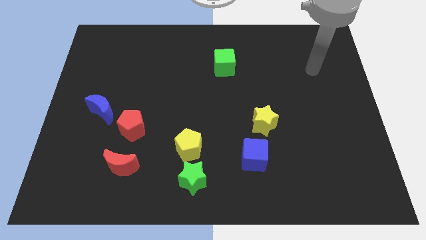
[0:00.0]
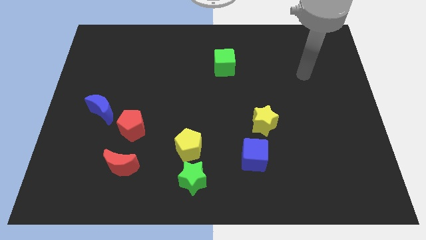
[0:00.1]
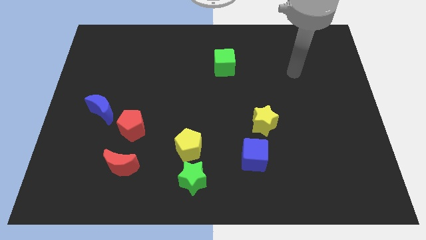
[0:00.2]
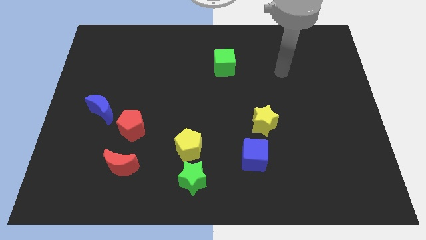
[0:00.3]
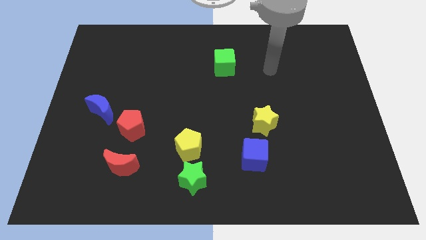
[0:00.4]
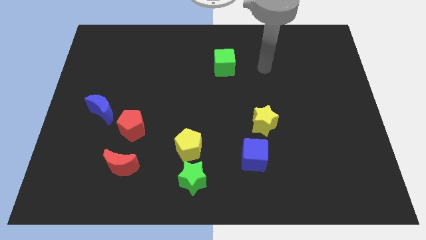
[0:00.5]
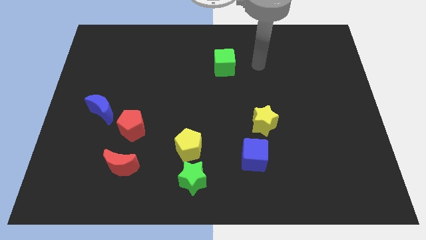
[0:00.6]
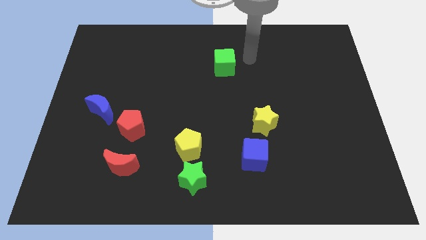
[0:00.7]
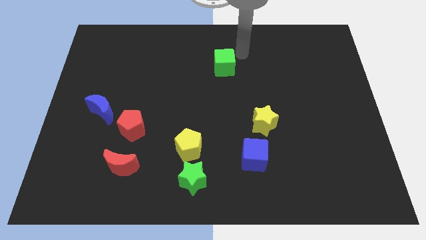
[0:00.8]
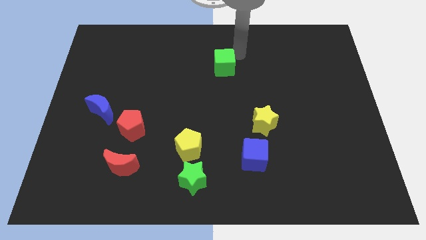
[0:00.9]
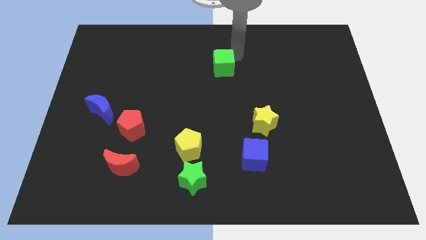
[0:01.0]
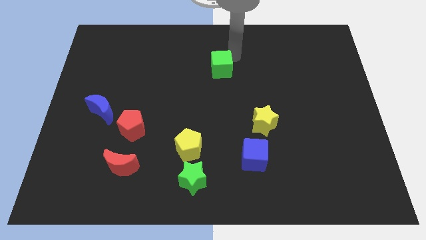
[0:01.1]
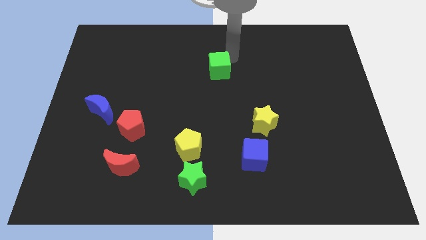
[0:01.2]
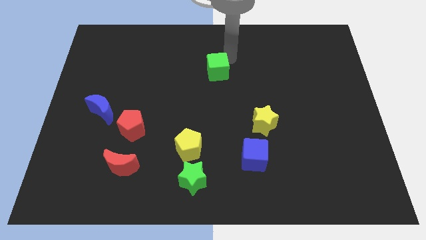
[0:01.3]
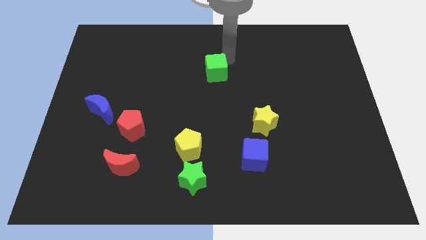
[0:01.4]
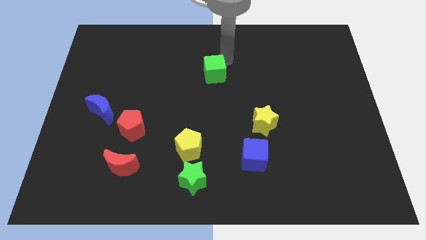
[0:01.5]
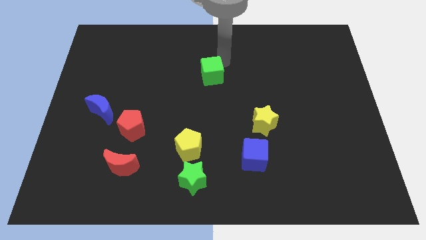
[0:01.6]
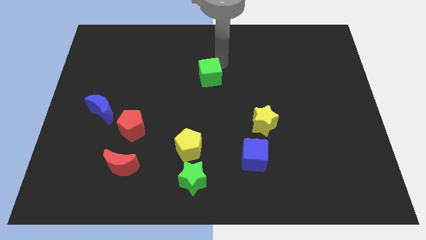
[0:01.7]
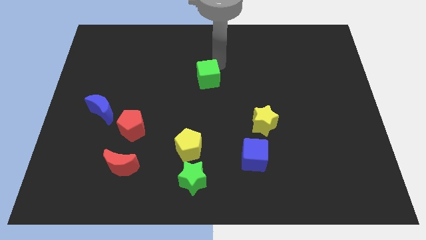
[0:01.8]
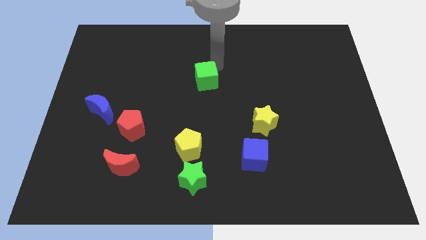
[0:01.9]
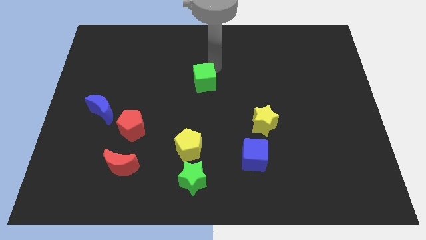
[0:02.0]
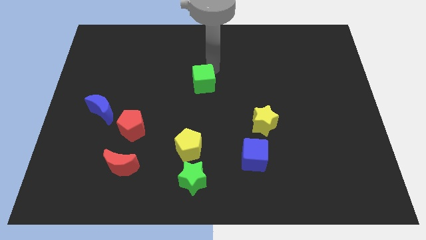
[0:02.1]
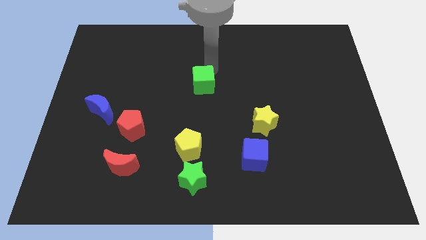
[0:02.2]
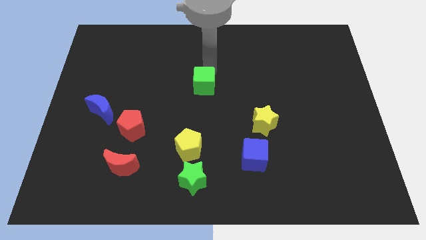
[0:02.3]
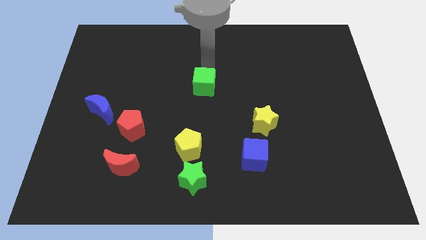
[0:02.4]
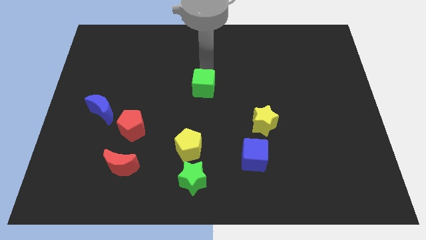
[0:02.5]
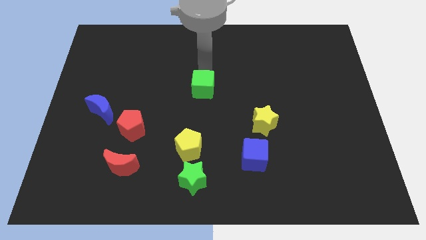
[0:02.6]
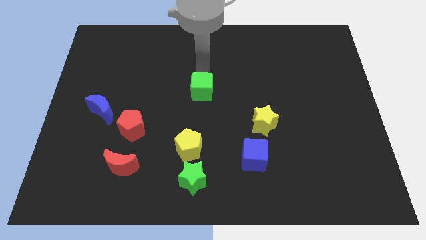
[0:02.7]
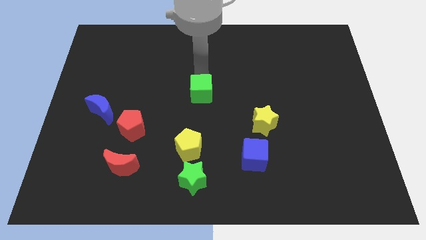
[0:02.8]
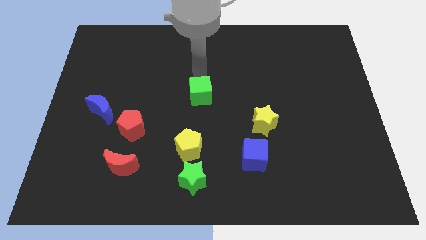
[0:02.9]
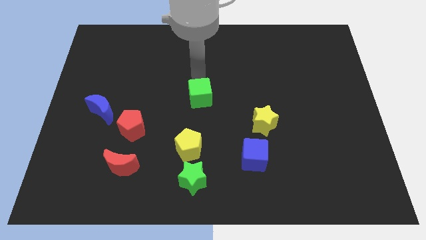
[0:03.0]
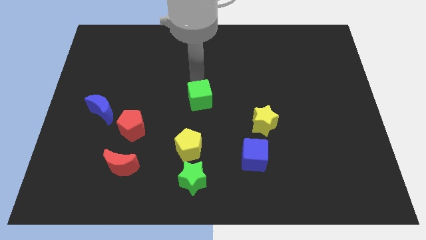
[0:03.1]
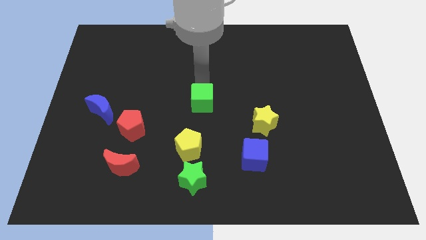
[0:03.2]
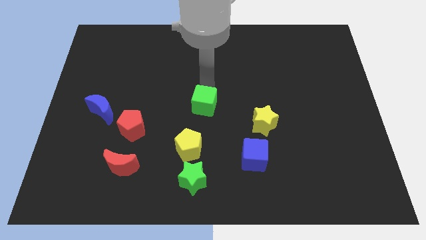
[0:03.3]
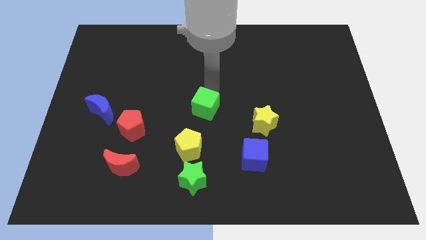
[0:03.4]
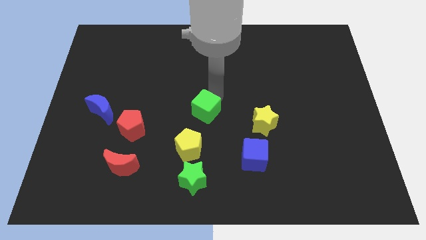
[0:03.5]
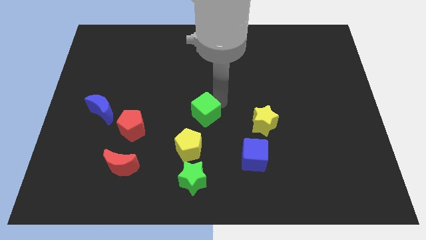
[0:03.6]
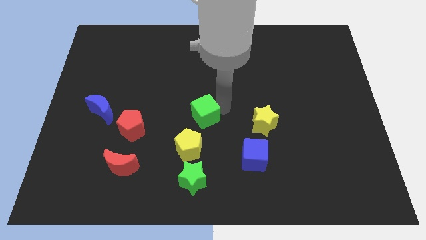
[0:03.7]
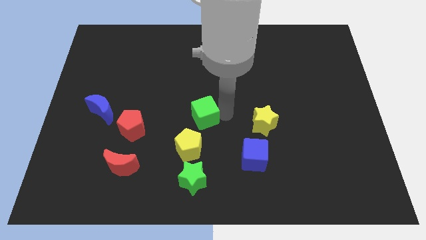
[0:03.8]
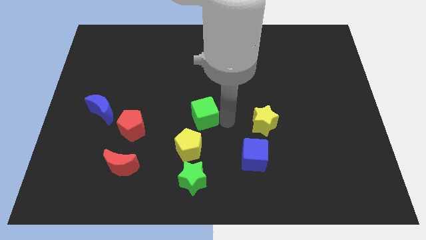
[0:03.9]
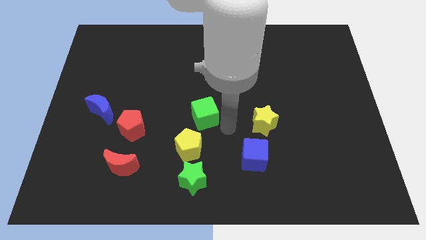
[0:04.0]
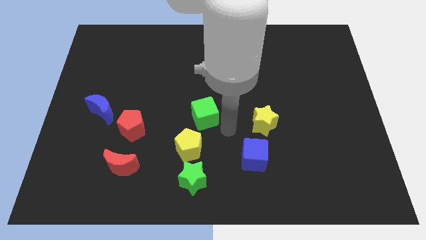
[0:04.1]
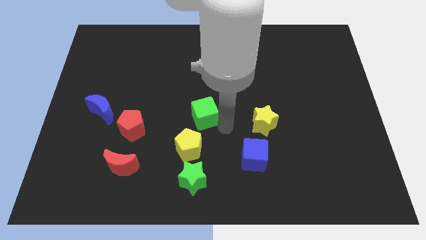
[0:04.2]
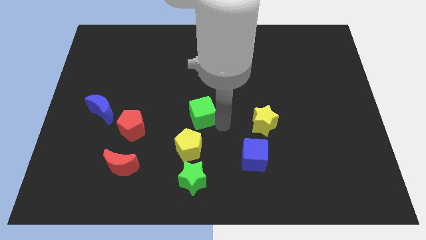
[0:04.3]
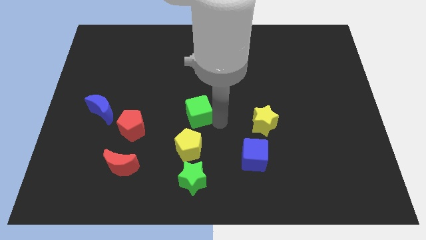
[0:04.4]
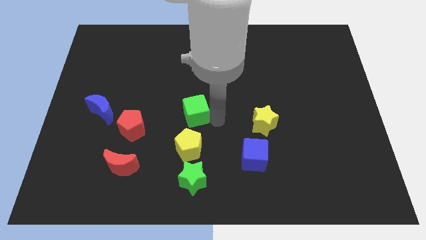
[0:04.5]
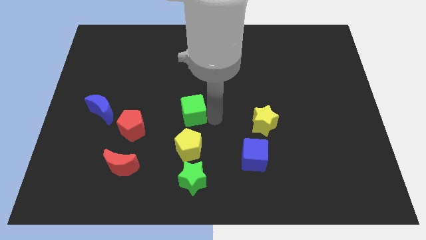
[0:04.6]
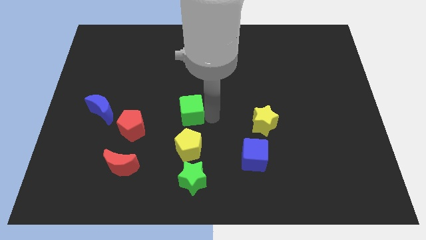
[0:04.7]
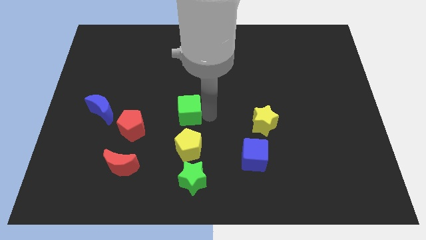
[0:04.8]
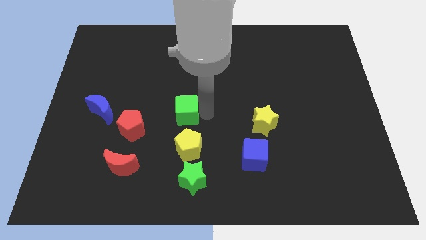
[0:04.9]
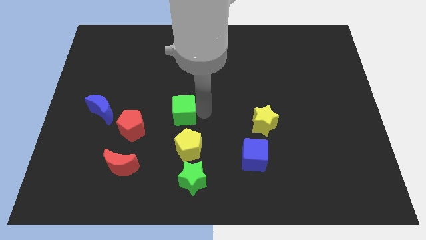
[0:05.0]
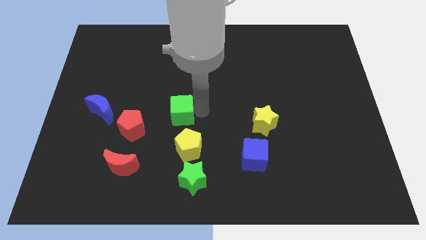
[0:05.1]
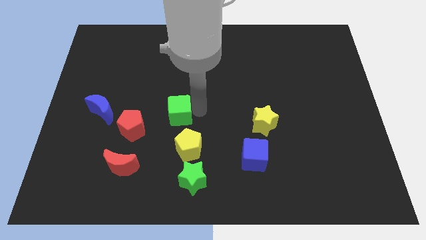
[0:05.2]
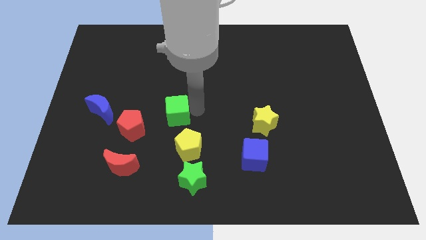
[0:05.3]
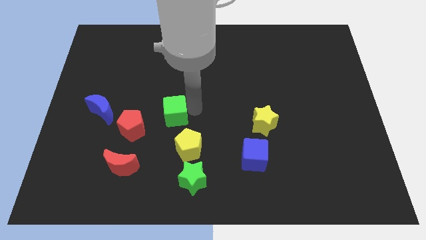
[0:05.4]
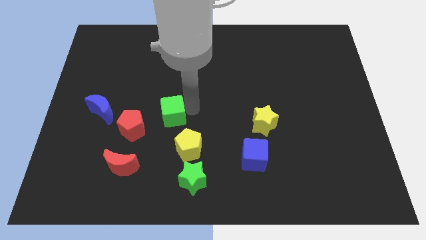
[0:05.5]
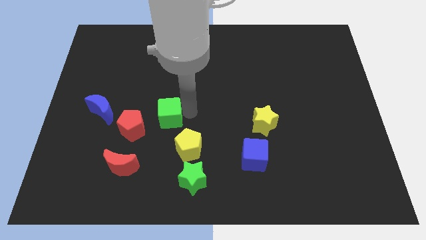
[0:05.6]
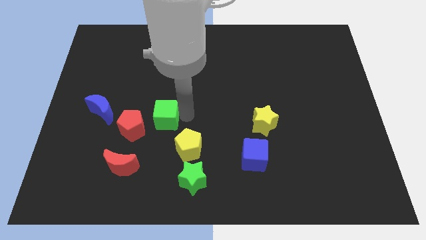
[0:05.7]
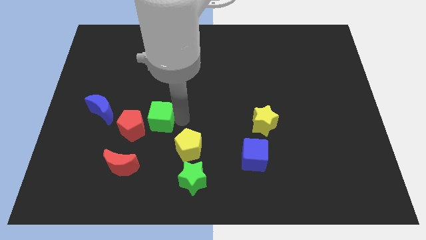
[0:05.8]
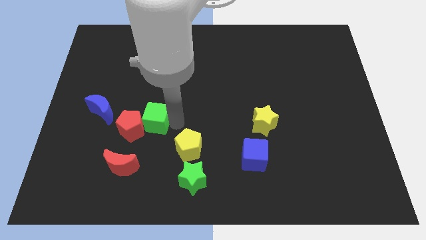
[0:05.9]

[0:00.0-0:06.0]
put the green cube next to the red pentagon

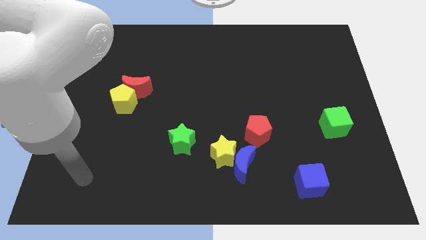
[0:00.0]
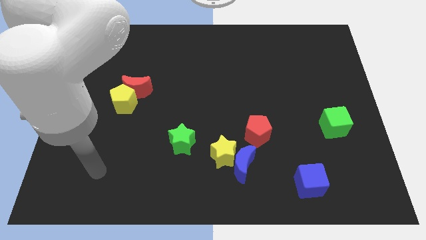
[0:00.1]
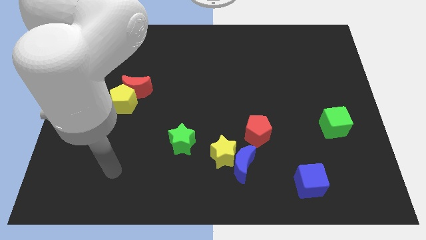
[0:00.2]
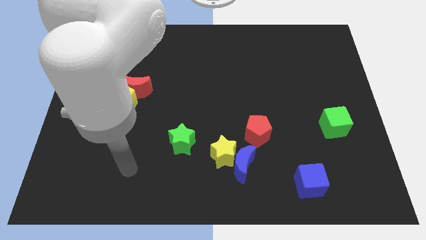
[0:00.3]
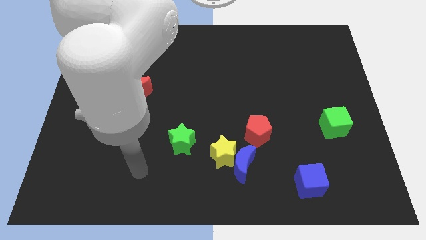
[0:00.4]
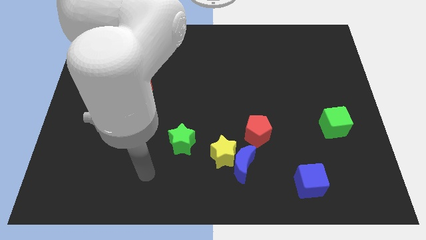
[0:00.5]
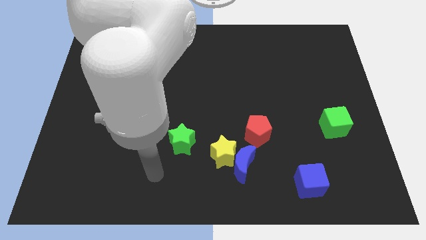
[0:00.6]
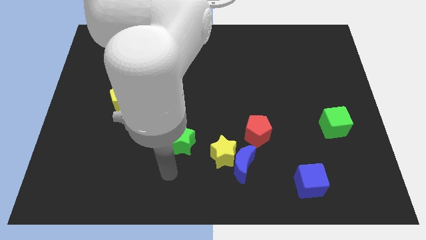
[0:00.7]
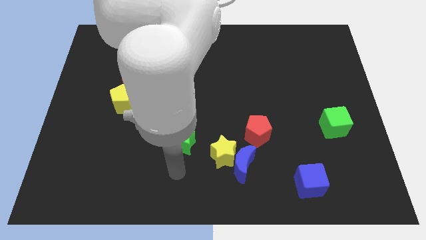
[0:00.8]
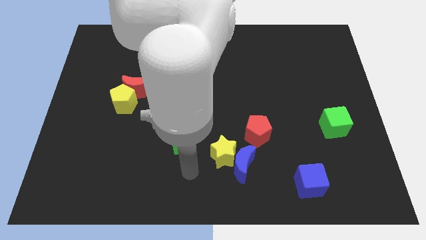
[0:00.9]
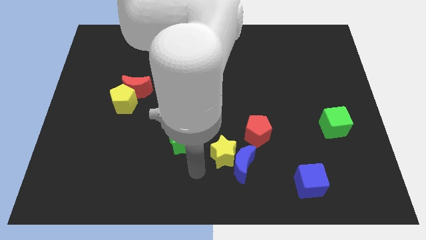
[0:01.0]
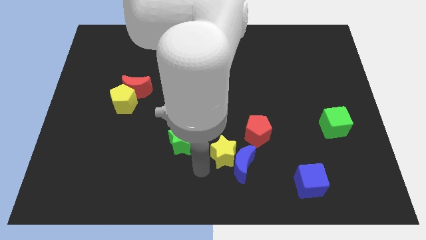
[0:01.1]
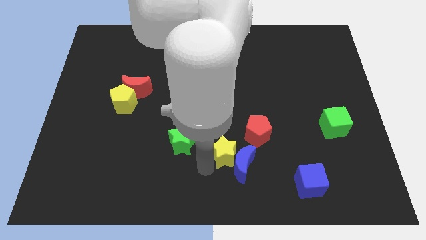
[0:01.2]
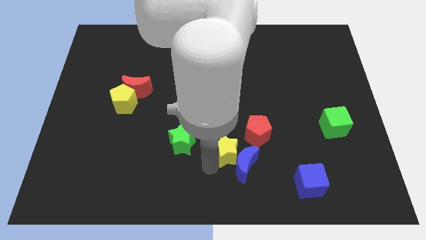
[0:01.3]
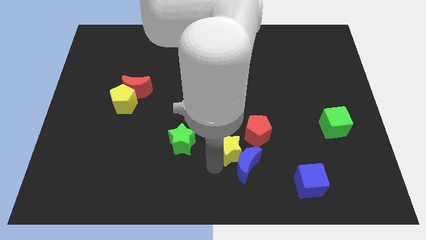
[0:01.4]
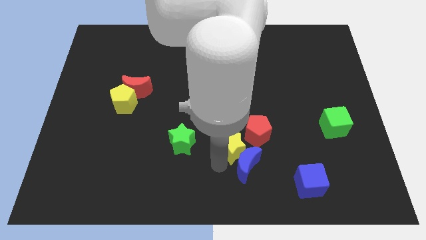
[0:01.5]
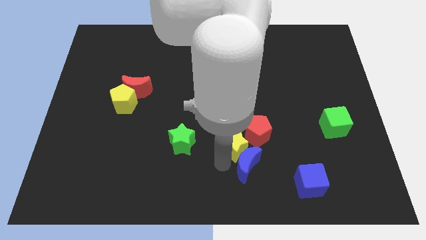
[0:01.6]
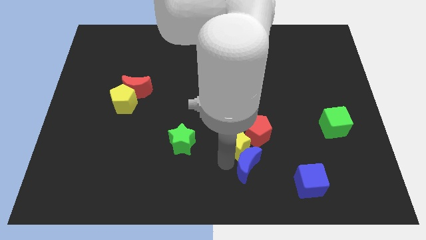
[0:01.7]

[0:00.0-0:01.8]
move the yellow star towards the red pentagon

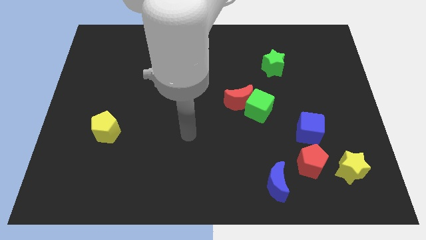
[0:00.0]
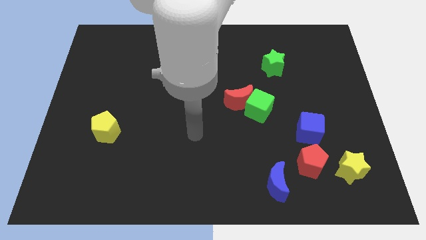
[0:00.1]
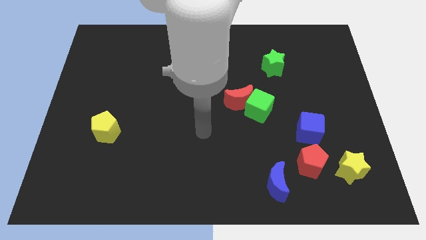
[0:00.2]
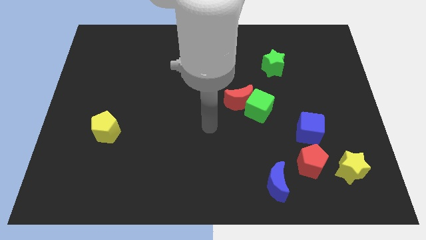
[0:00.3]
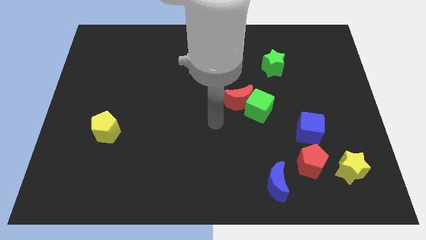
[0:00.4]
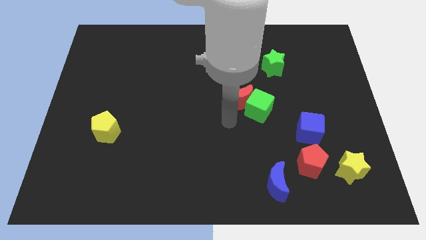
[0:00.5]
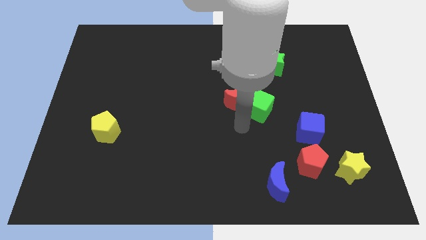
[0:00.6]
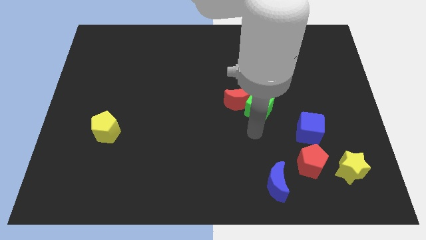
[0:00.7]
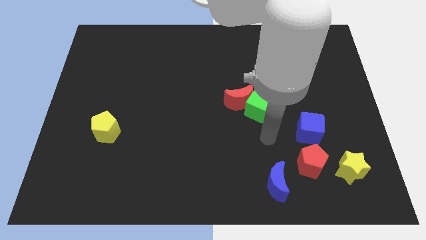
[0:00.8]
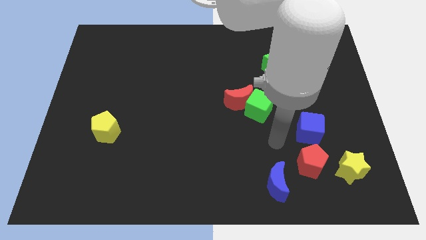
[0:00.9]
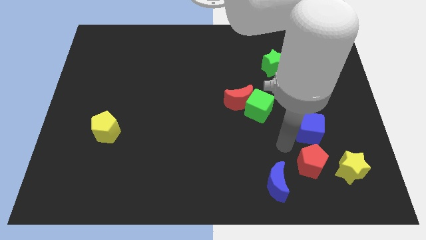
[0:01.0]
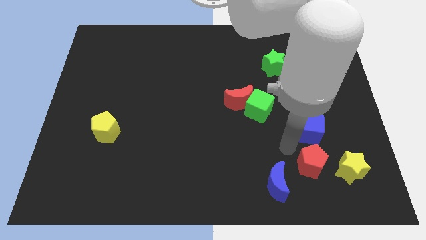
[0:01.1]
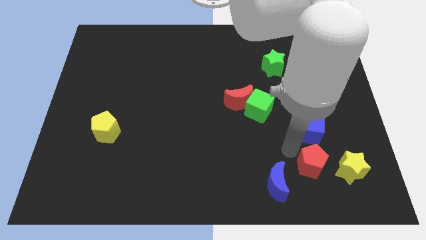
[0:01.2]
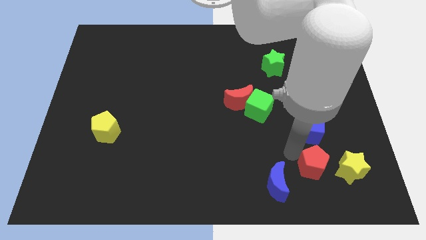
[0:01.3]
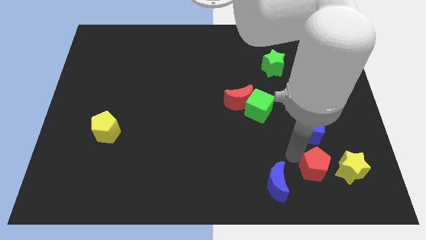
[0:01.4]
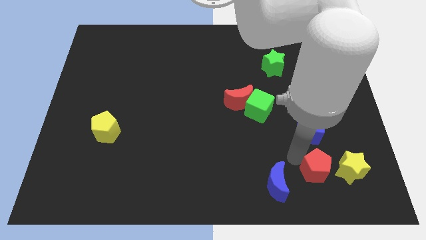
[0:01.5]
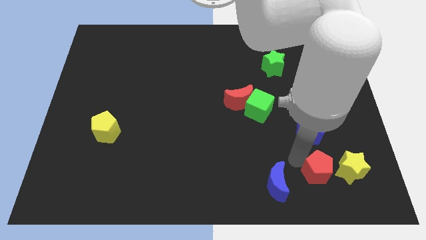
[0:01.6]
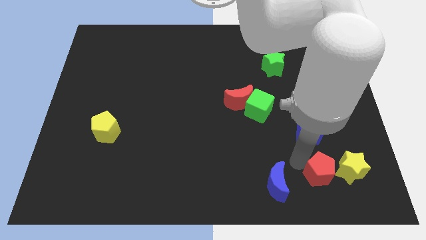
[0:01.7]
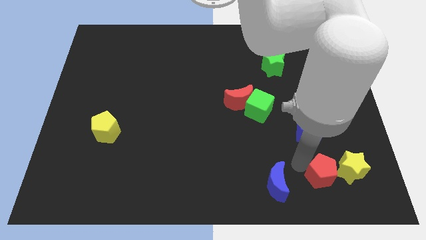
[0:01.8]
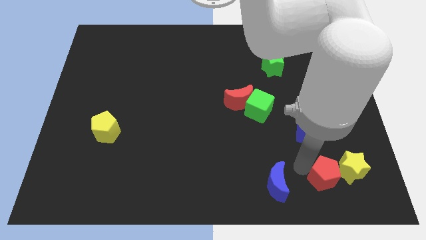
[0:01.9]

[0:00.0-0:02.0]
push the red pentagon next to the yellow star
